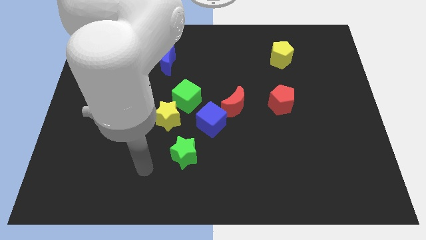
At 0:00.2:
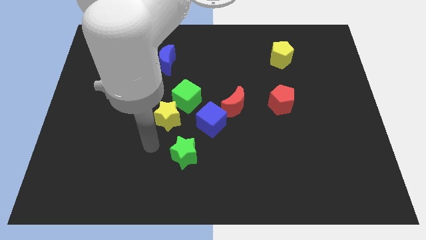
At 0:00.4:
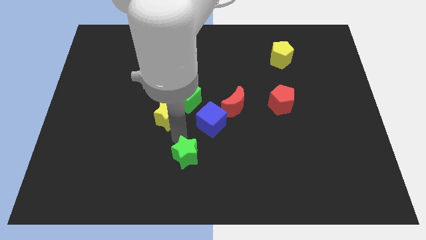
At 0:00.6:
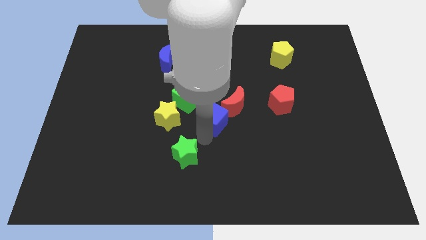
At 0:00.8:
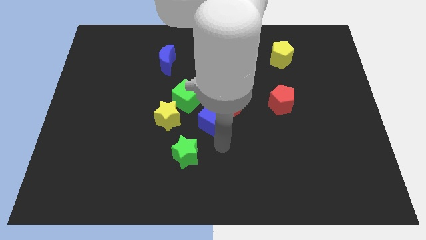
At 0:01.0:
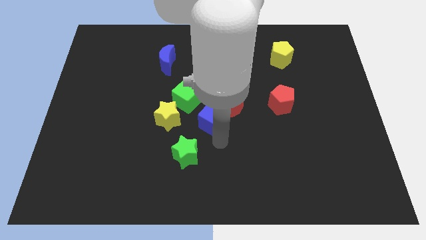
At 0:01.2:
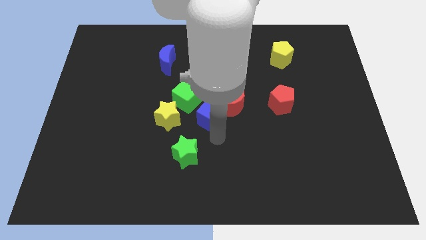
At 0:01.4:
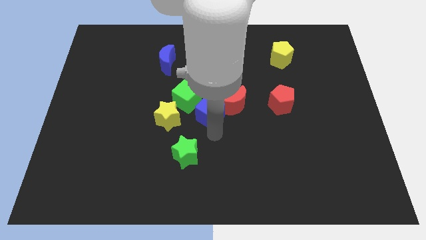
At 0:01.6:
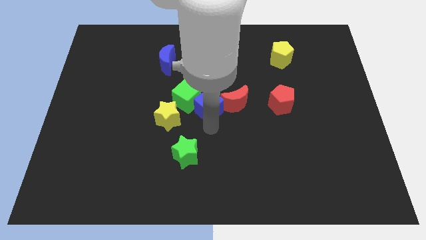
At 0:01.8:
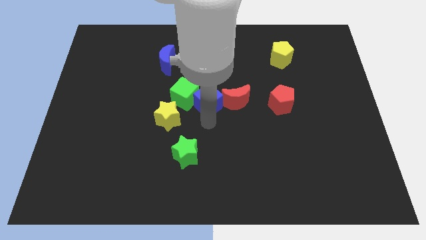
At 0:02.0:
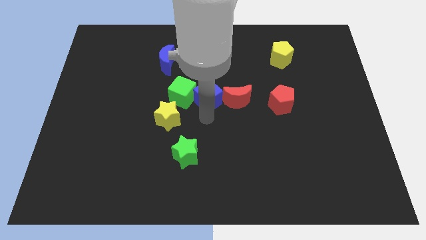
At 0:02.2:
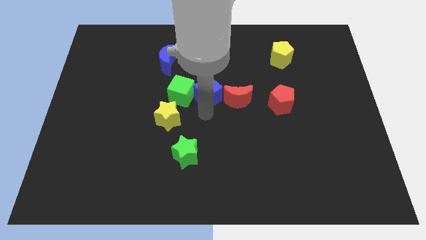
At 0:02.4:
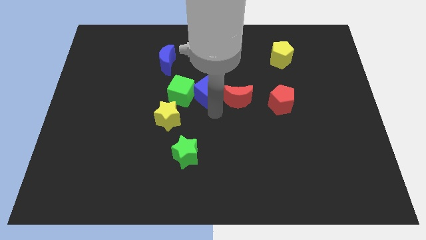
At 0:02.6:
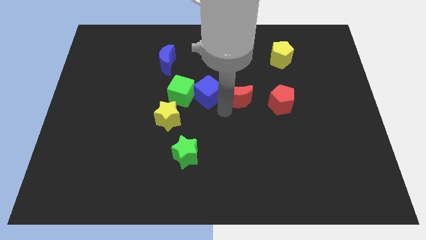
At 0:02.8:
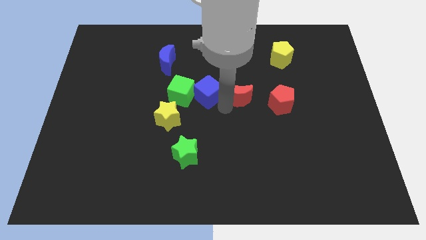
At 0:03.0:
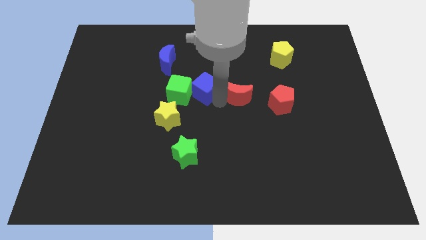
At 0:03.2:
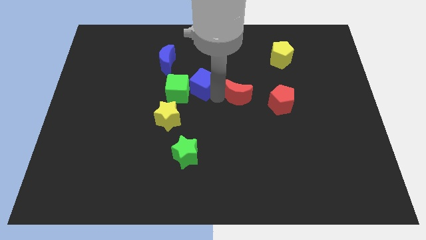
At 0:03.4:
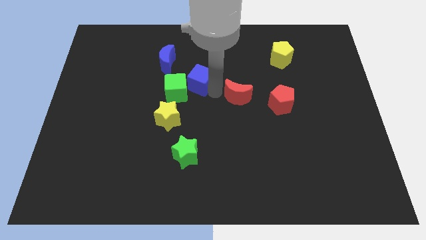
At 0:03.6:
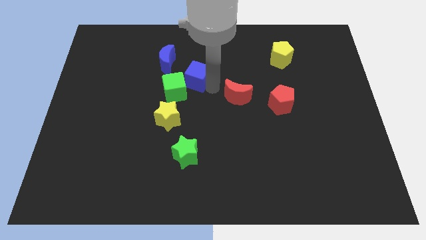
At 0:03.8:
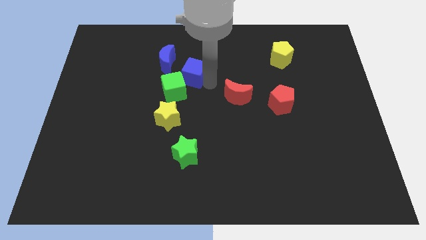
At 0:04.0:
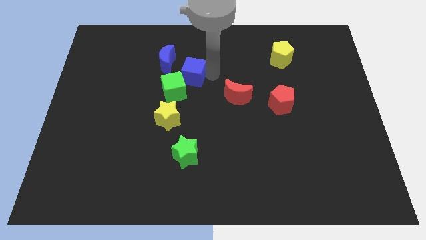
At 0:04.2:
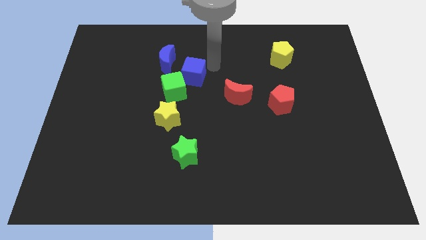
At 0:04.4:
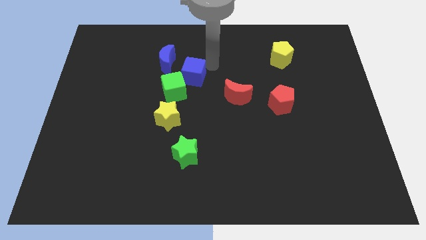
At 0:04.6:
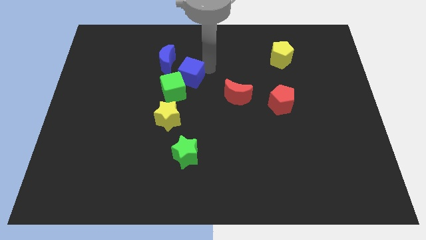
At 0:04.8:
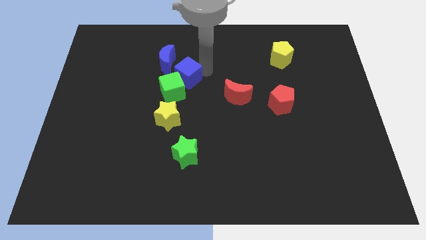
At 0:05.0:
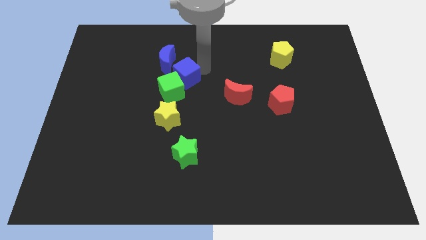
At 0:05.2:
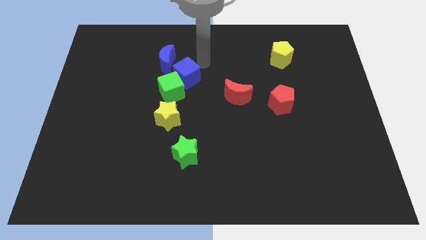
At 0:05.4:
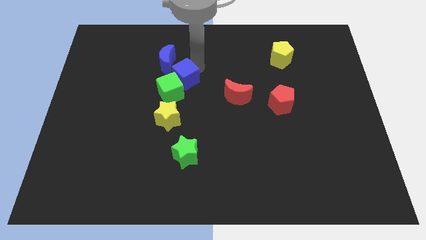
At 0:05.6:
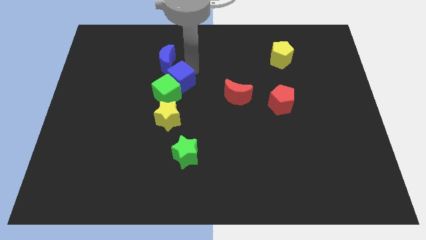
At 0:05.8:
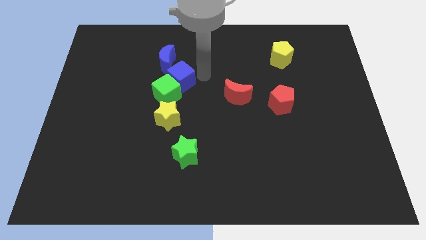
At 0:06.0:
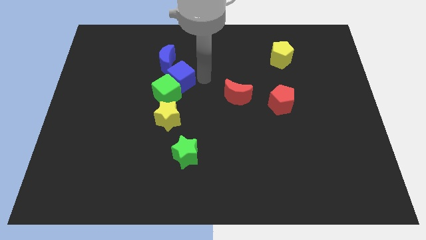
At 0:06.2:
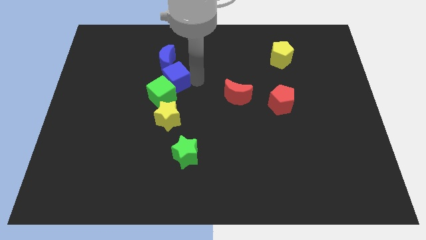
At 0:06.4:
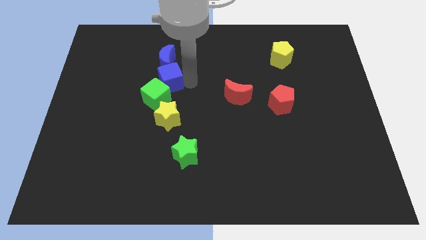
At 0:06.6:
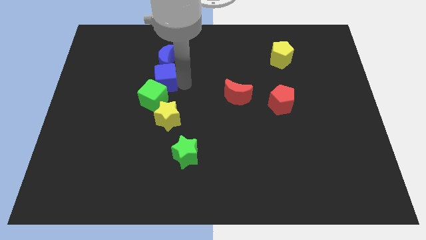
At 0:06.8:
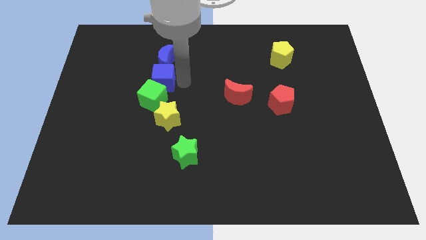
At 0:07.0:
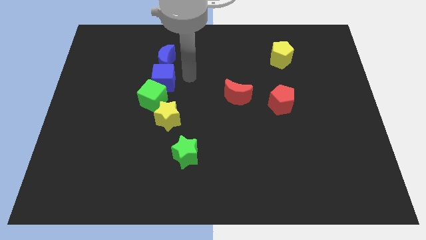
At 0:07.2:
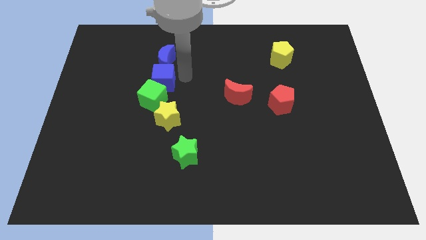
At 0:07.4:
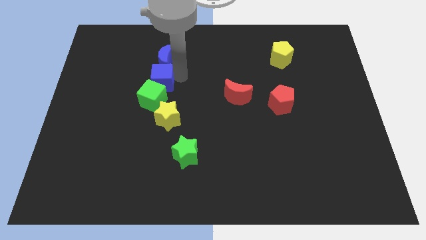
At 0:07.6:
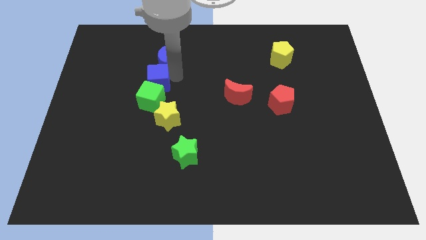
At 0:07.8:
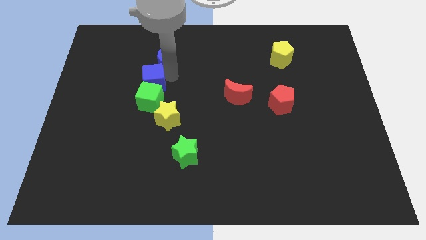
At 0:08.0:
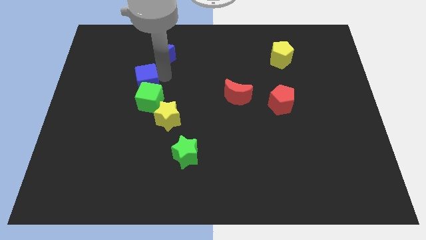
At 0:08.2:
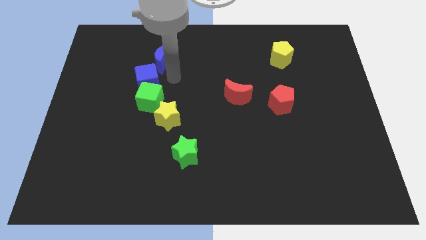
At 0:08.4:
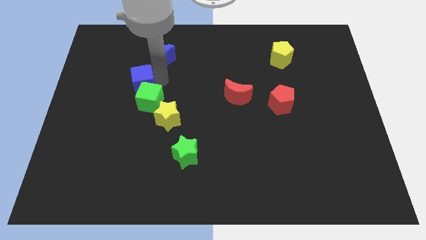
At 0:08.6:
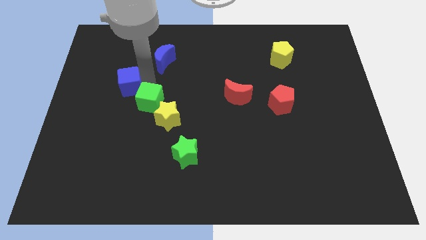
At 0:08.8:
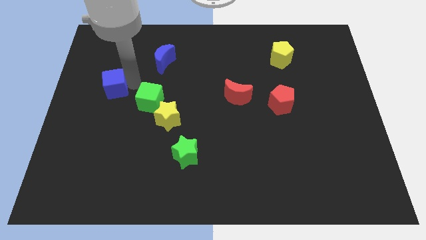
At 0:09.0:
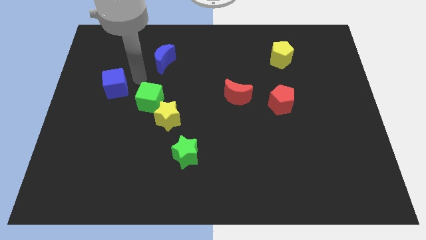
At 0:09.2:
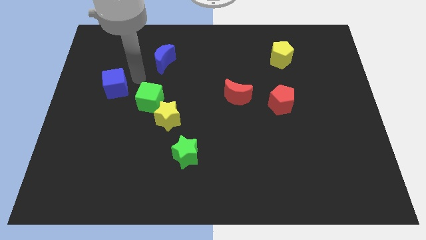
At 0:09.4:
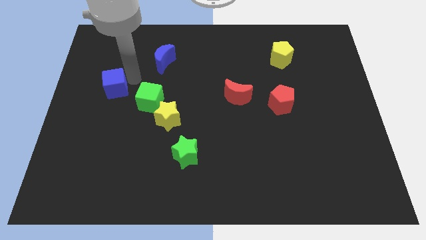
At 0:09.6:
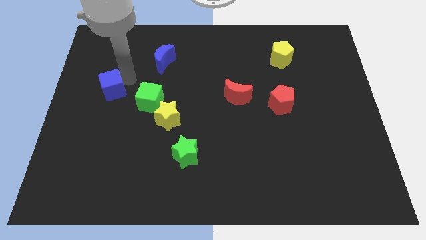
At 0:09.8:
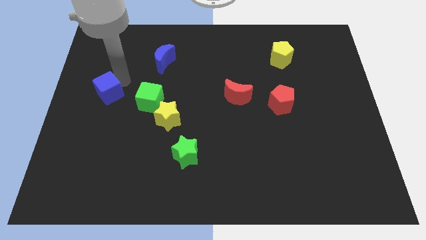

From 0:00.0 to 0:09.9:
move the blue cube to the center left

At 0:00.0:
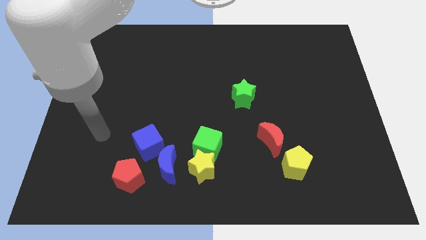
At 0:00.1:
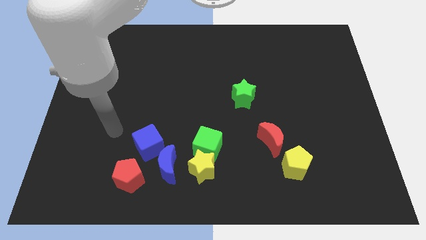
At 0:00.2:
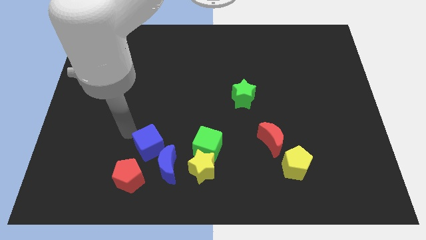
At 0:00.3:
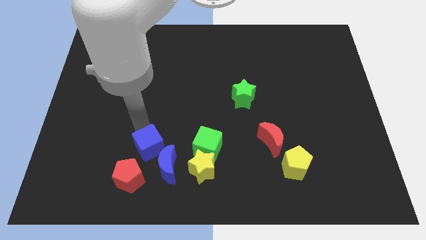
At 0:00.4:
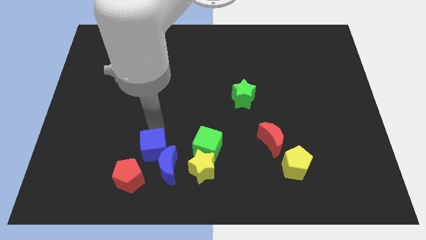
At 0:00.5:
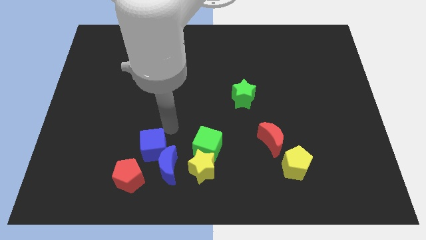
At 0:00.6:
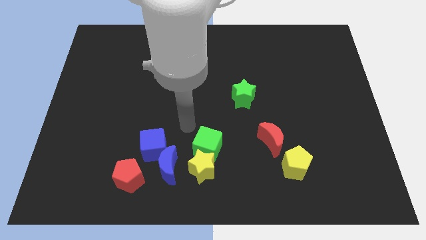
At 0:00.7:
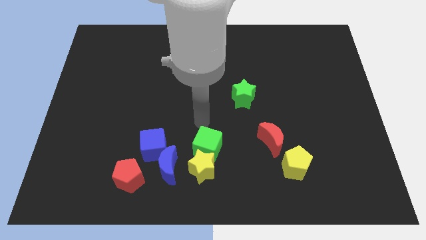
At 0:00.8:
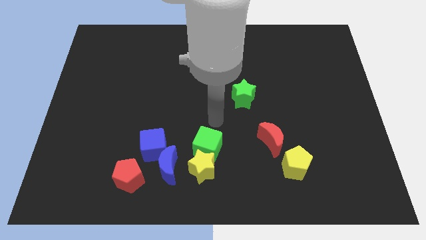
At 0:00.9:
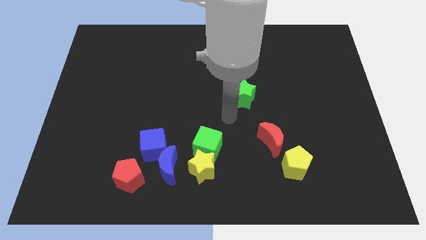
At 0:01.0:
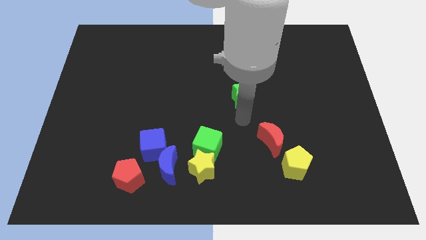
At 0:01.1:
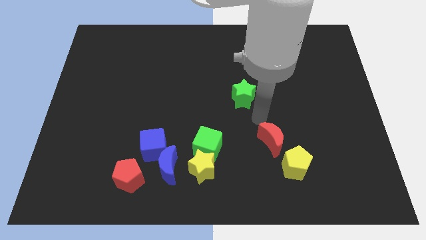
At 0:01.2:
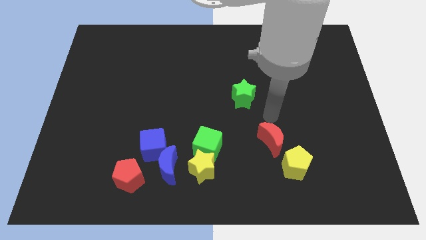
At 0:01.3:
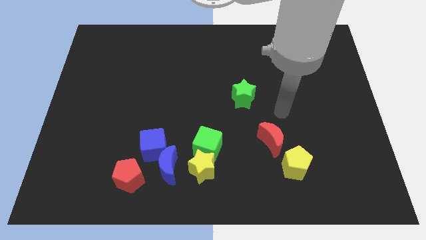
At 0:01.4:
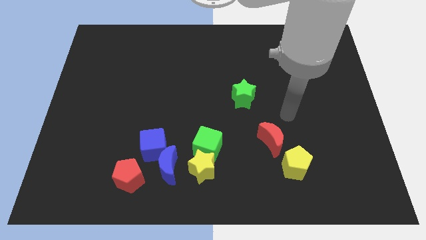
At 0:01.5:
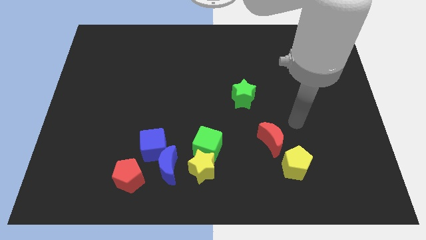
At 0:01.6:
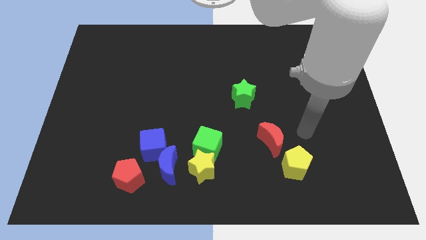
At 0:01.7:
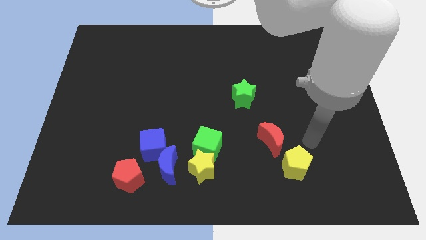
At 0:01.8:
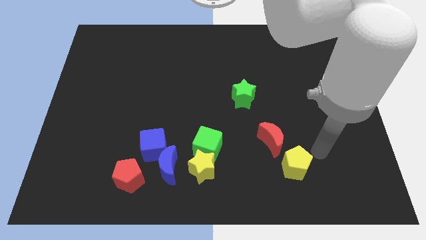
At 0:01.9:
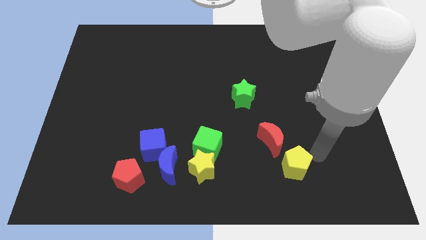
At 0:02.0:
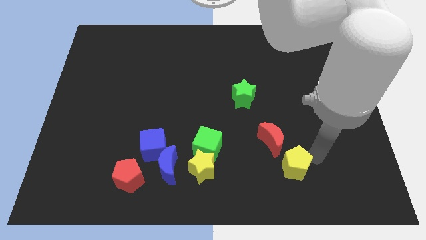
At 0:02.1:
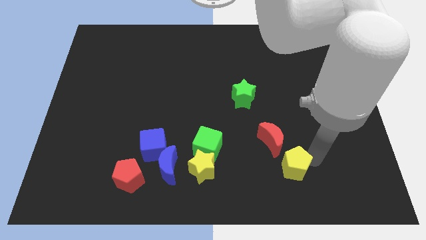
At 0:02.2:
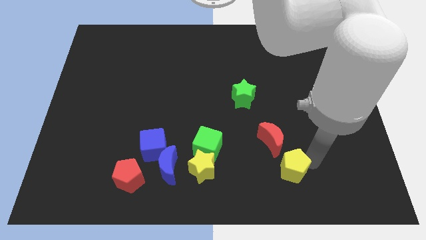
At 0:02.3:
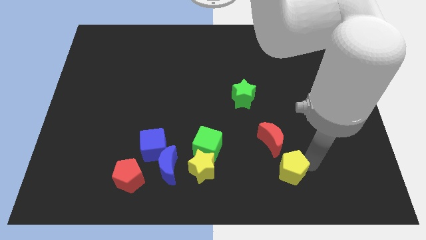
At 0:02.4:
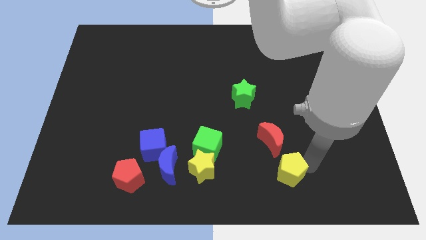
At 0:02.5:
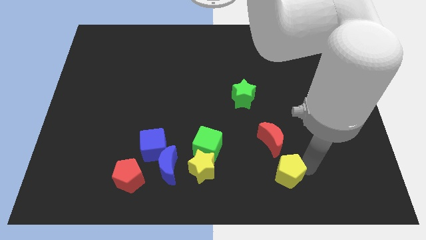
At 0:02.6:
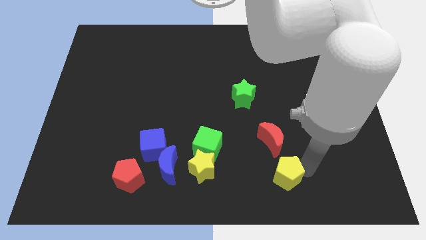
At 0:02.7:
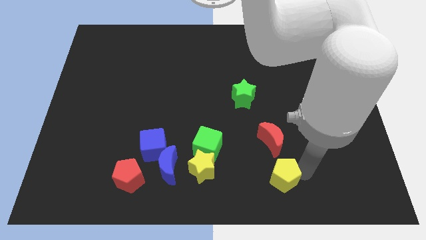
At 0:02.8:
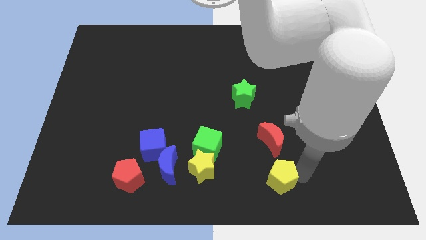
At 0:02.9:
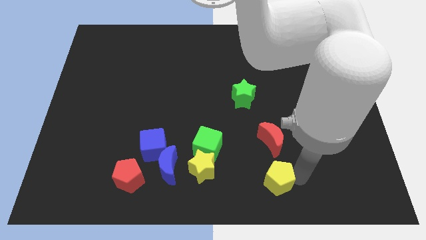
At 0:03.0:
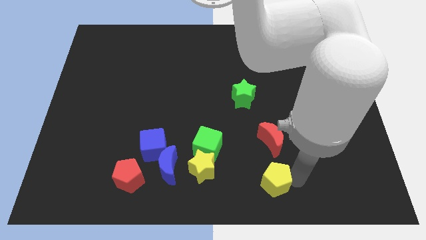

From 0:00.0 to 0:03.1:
put the yellow pentagon to the bottom side
